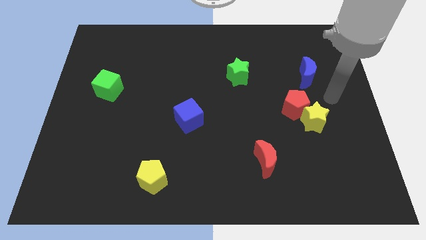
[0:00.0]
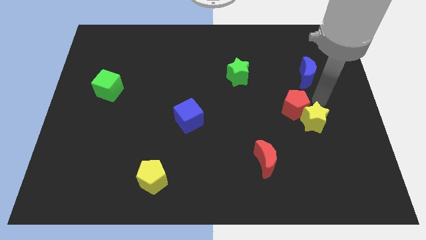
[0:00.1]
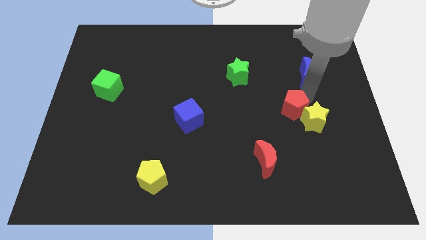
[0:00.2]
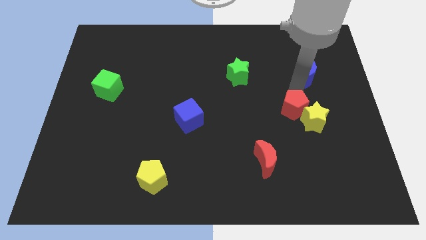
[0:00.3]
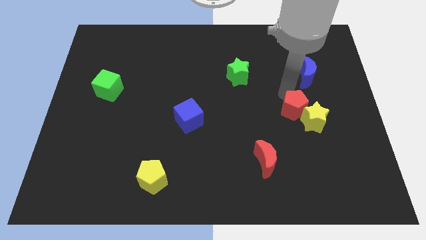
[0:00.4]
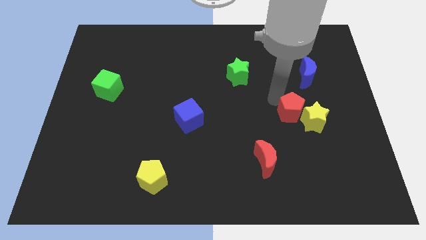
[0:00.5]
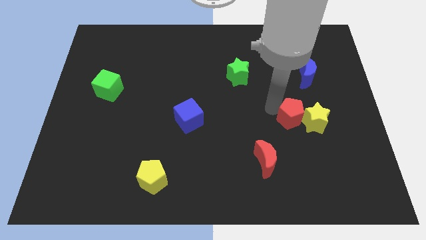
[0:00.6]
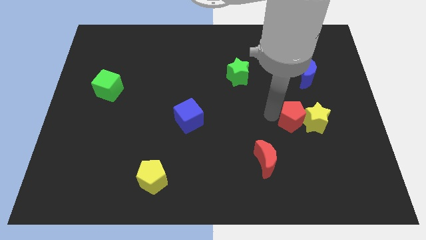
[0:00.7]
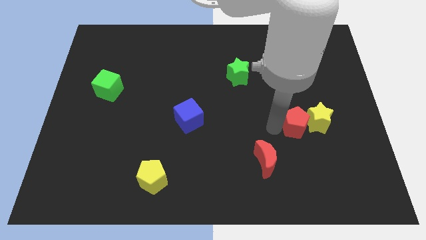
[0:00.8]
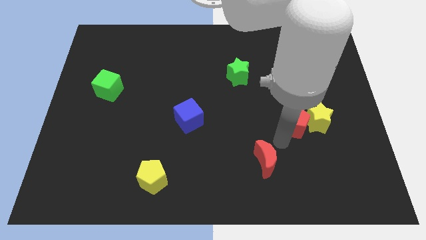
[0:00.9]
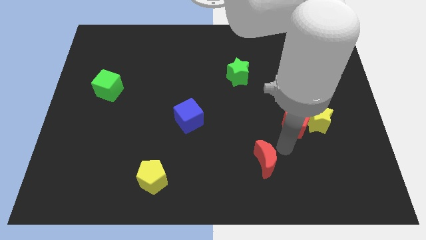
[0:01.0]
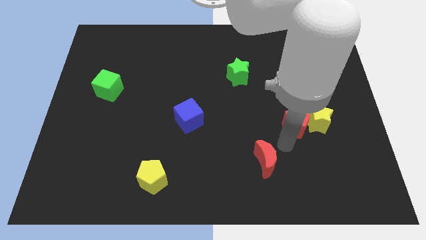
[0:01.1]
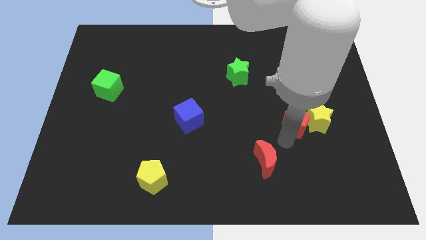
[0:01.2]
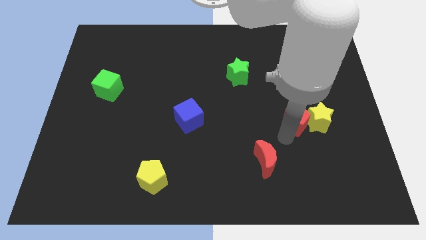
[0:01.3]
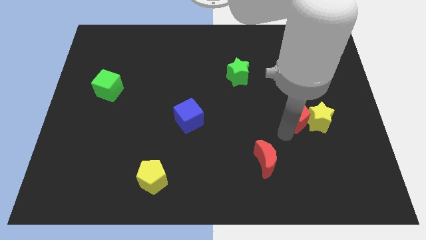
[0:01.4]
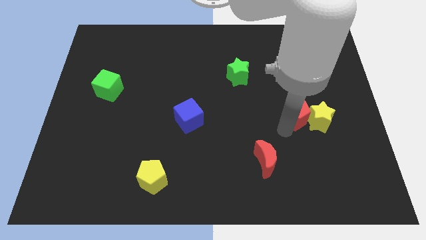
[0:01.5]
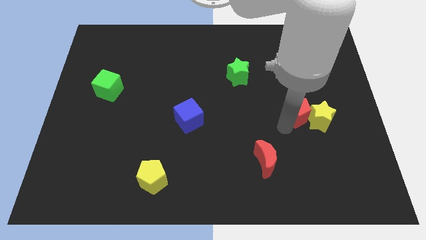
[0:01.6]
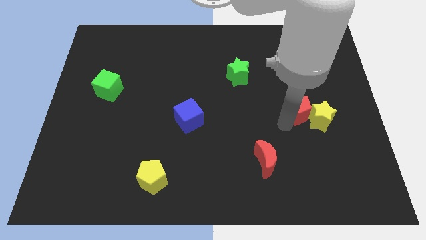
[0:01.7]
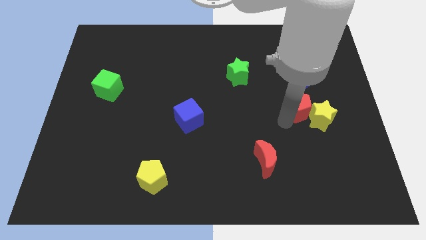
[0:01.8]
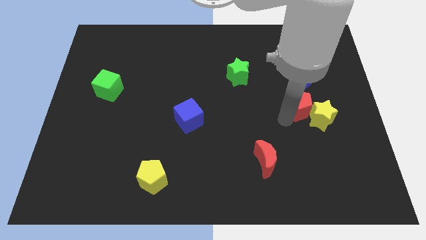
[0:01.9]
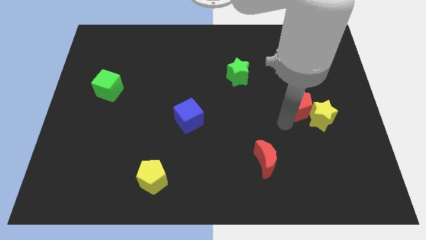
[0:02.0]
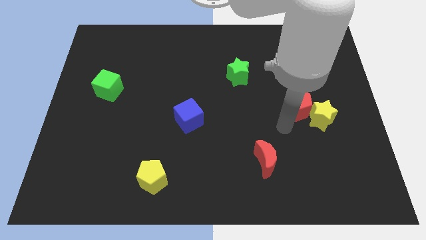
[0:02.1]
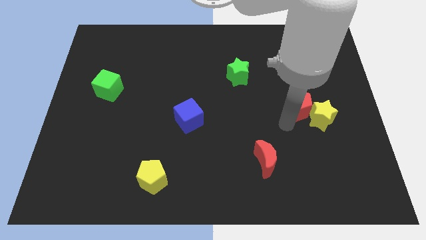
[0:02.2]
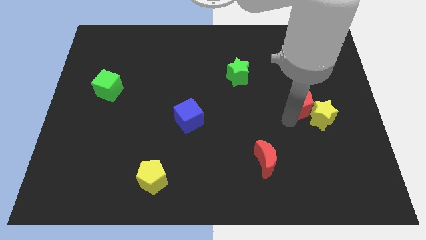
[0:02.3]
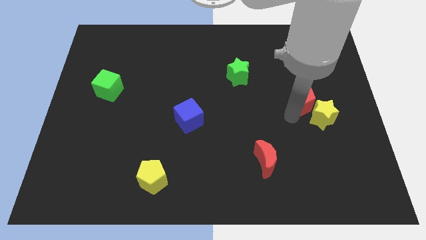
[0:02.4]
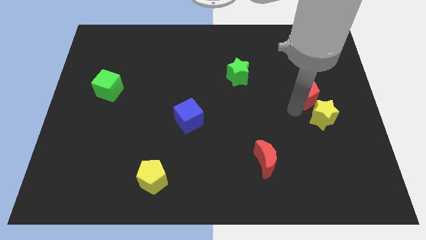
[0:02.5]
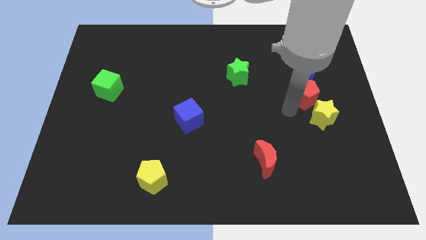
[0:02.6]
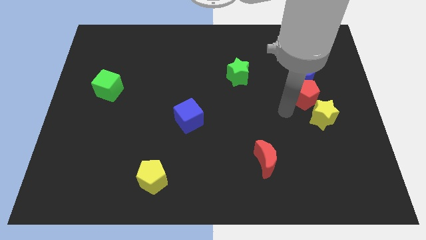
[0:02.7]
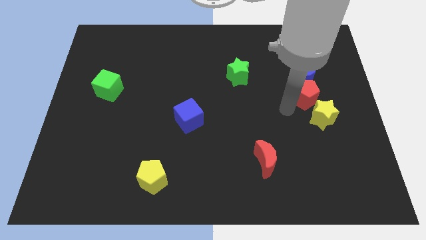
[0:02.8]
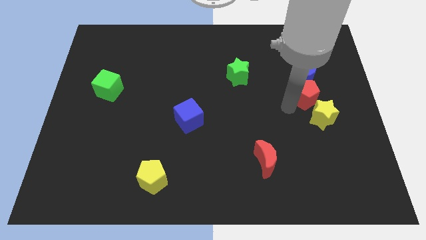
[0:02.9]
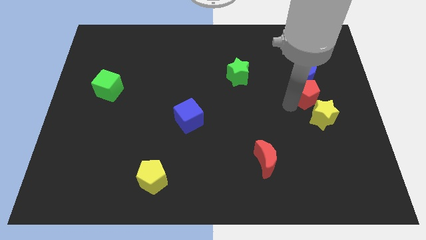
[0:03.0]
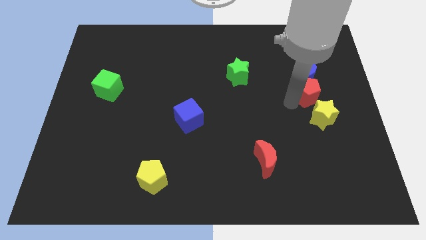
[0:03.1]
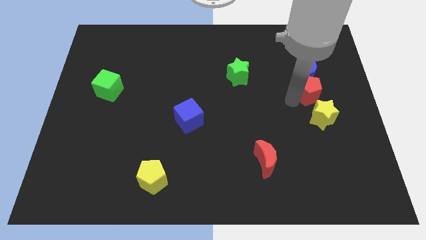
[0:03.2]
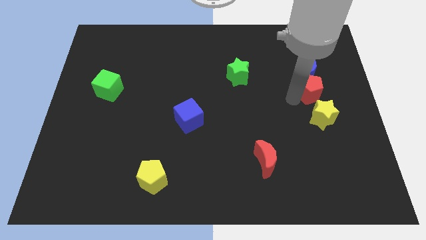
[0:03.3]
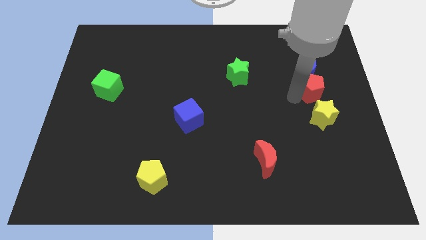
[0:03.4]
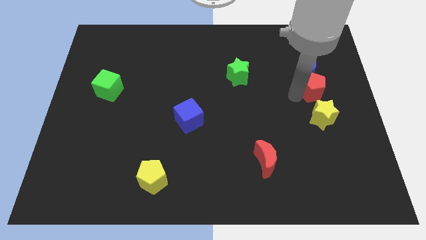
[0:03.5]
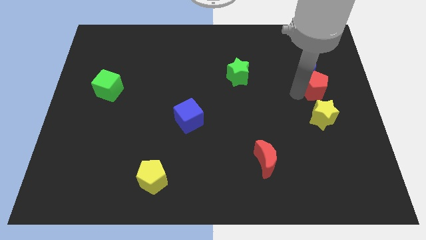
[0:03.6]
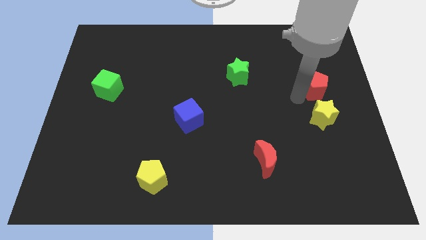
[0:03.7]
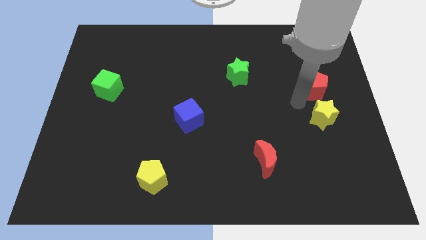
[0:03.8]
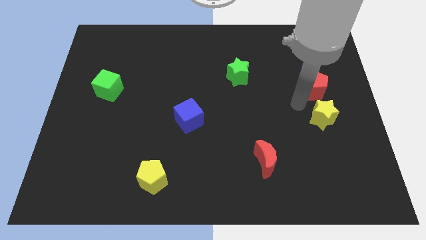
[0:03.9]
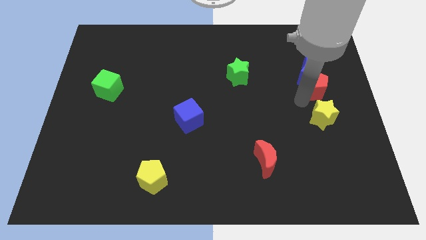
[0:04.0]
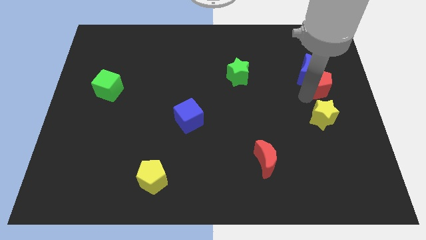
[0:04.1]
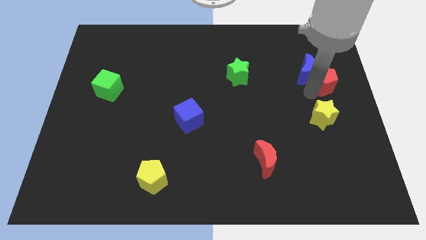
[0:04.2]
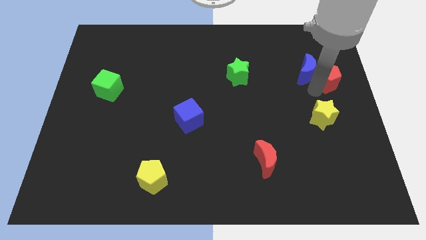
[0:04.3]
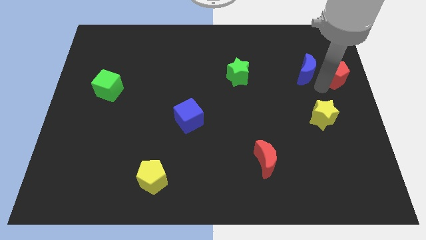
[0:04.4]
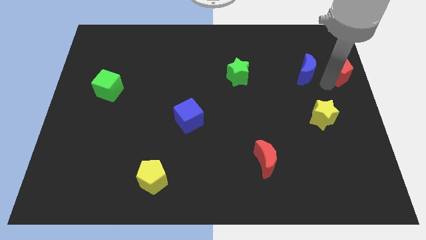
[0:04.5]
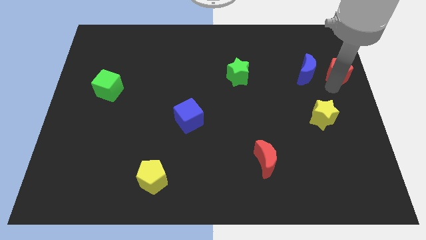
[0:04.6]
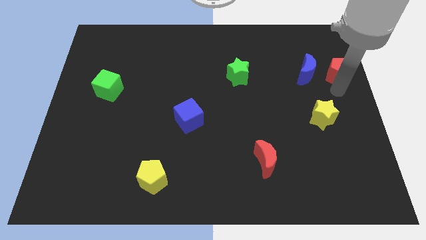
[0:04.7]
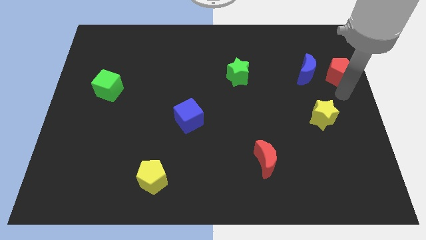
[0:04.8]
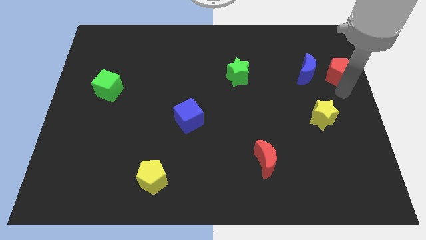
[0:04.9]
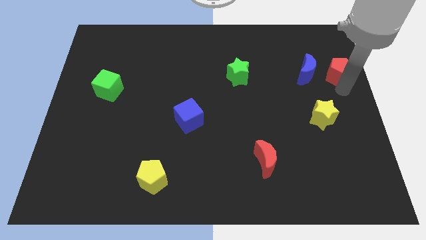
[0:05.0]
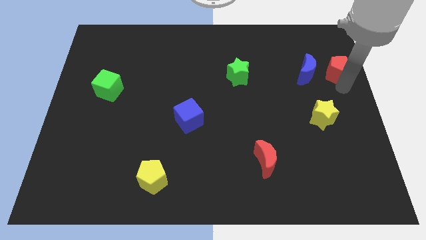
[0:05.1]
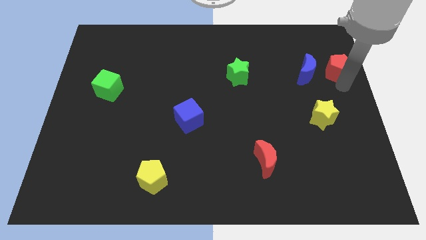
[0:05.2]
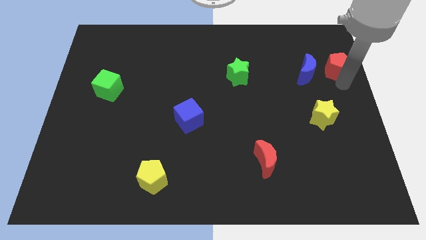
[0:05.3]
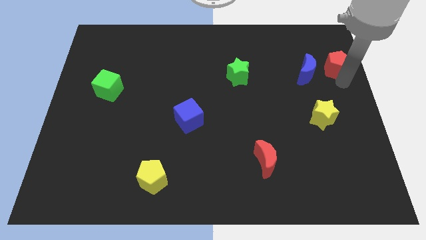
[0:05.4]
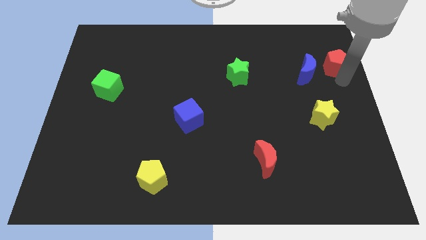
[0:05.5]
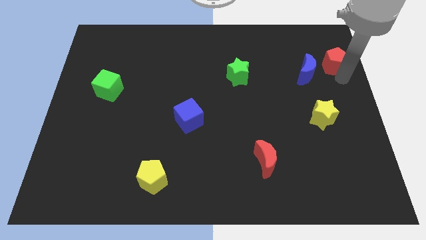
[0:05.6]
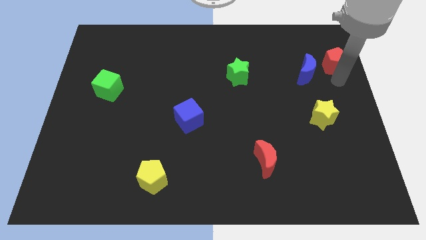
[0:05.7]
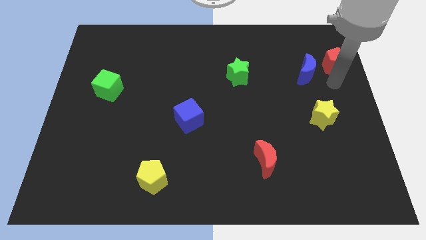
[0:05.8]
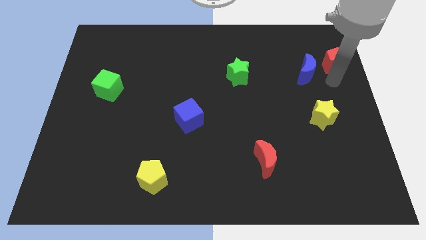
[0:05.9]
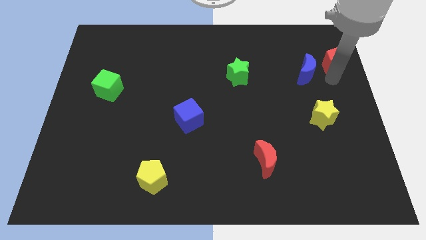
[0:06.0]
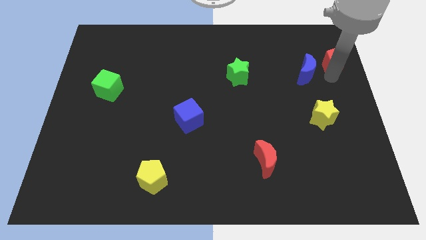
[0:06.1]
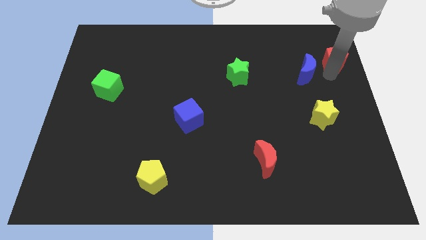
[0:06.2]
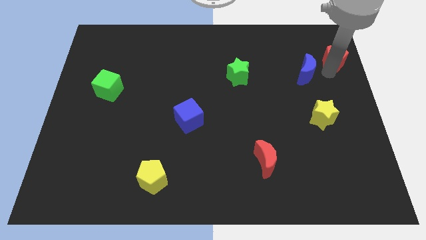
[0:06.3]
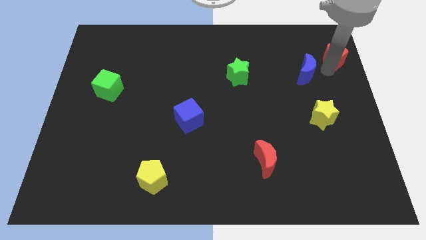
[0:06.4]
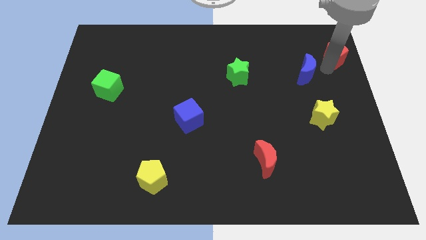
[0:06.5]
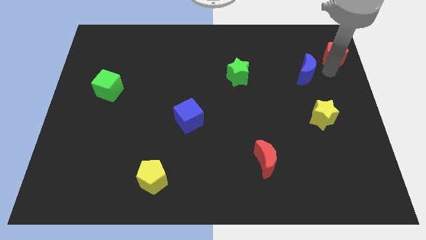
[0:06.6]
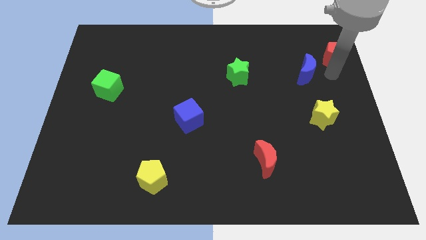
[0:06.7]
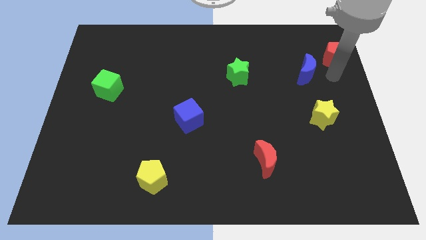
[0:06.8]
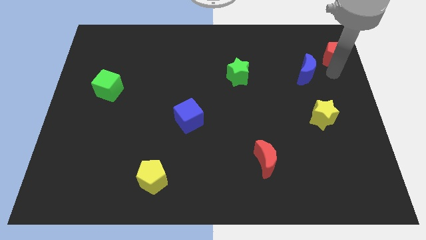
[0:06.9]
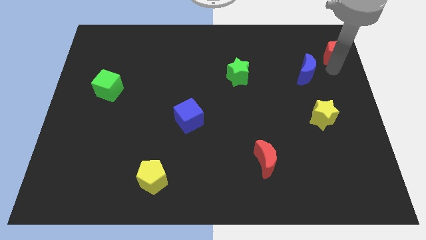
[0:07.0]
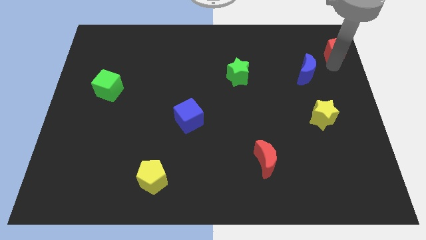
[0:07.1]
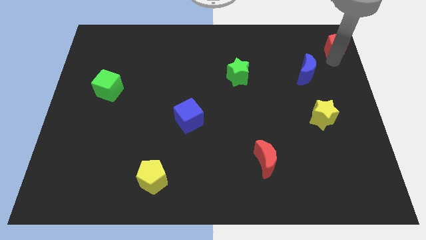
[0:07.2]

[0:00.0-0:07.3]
push the red pentagon to the top right of the board
